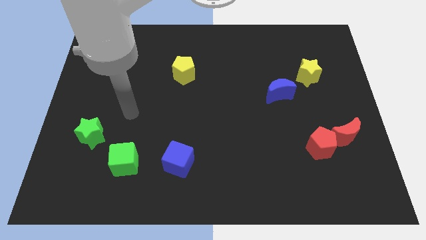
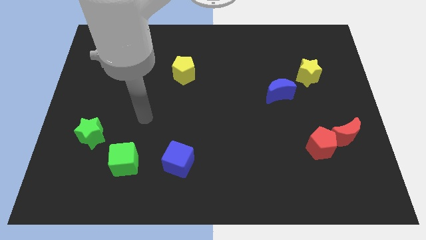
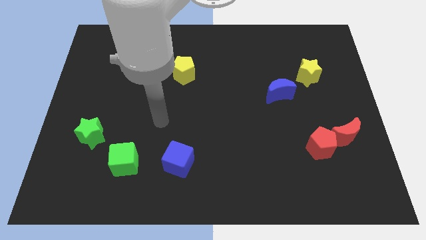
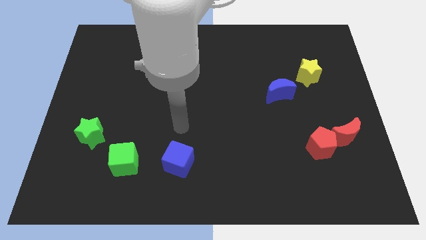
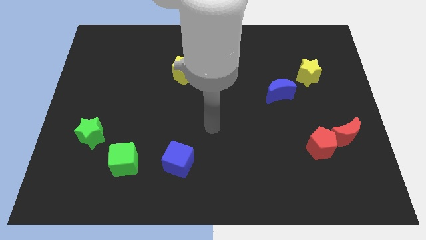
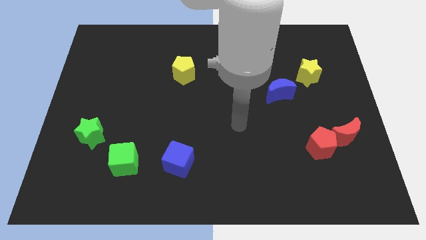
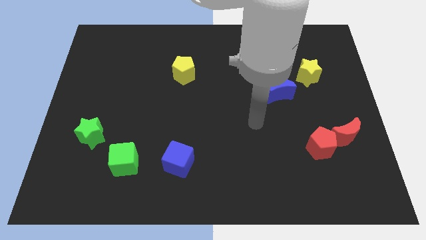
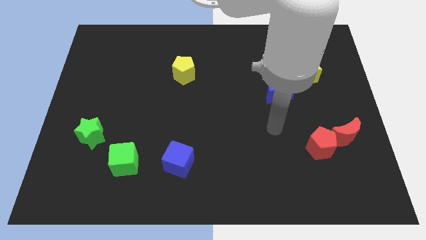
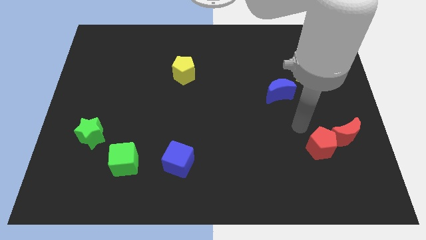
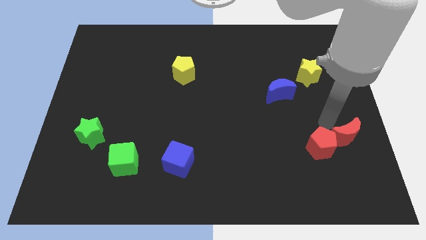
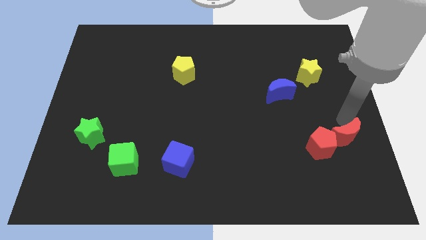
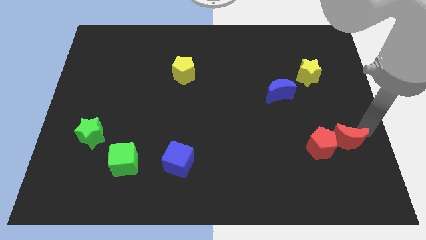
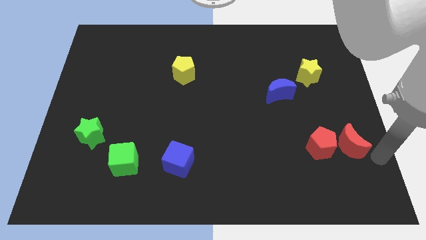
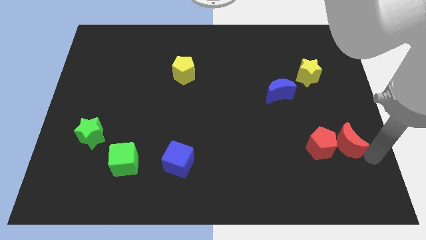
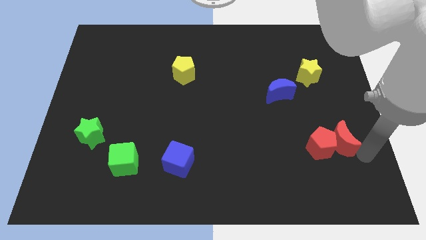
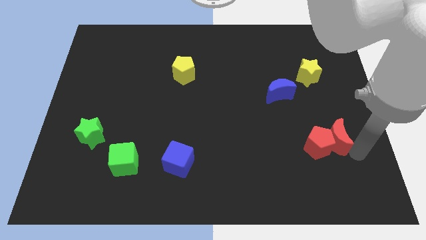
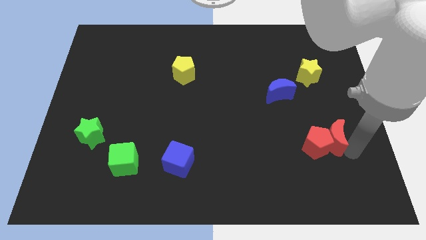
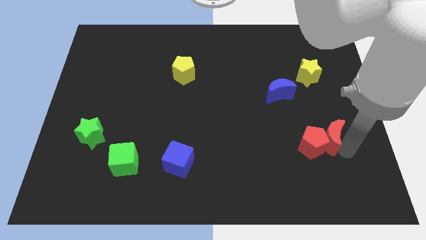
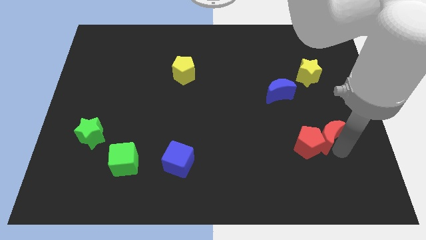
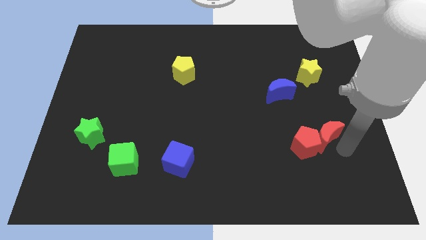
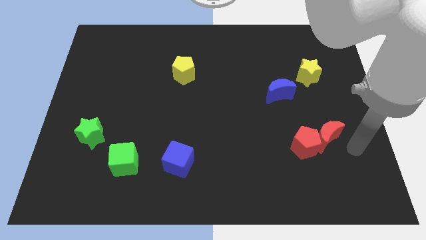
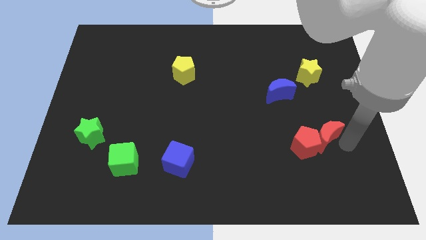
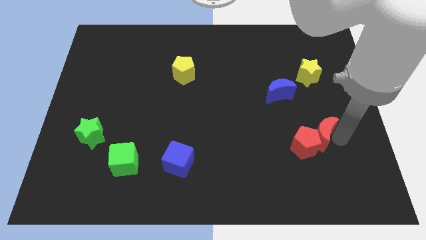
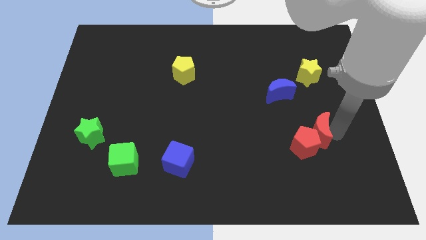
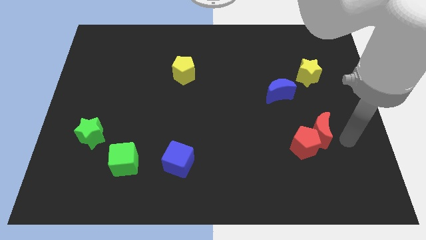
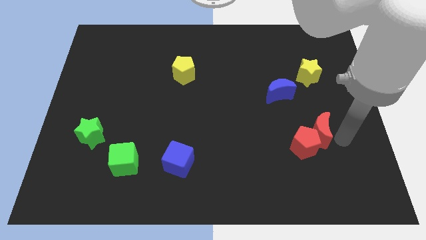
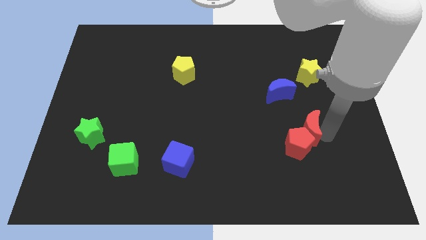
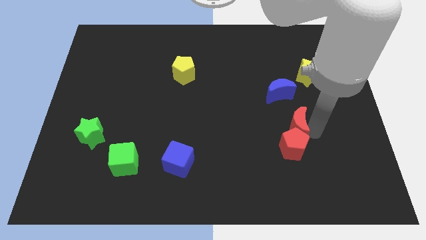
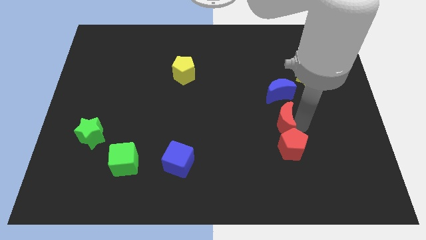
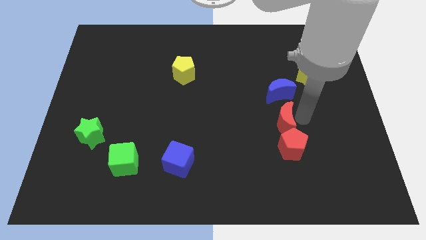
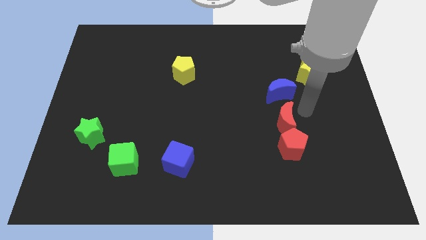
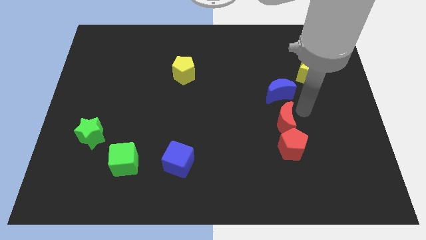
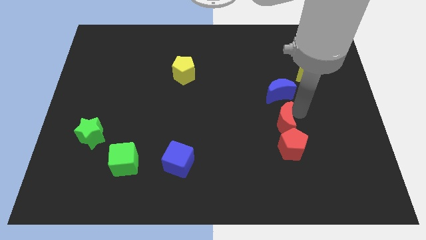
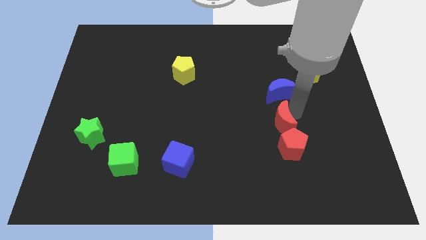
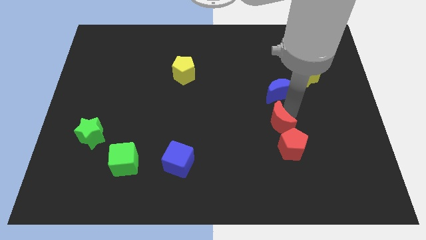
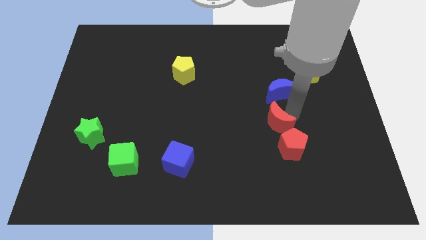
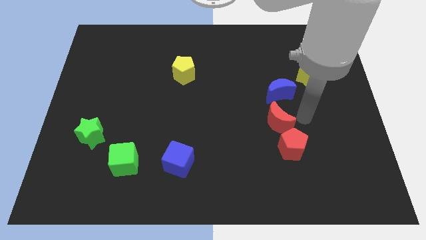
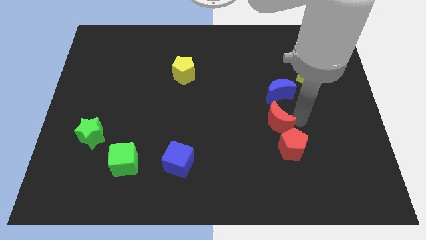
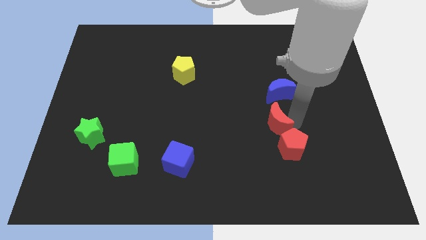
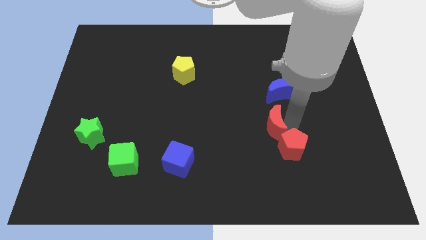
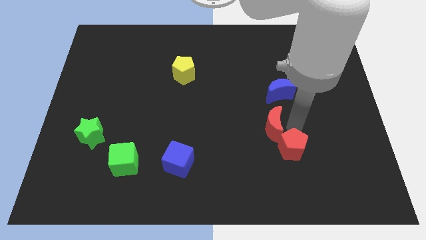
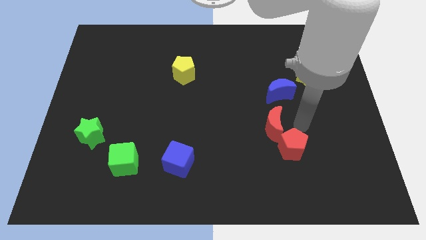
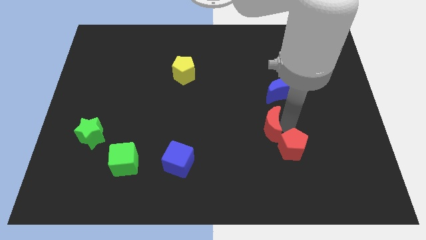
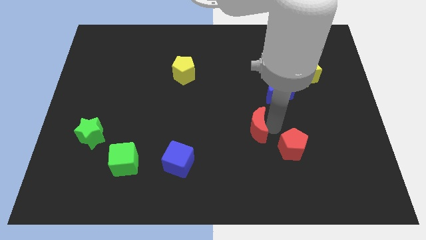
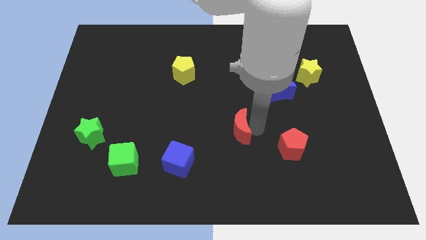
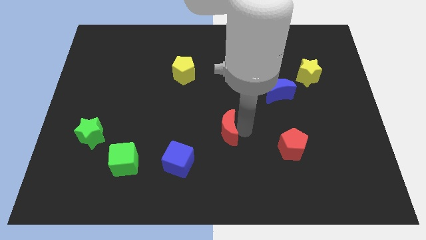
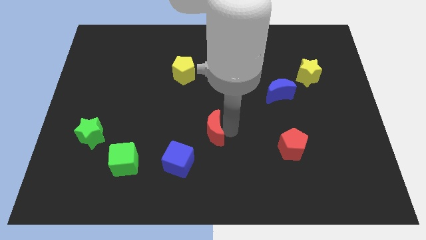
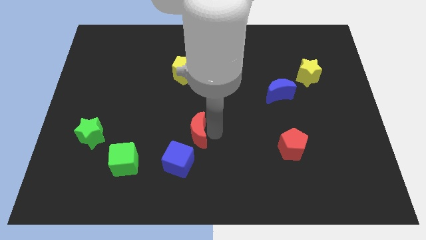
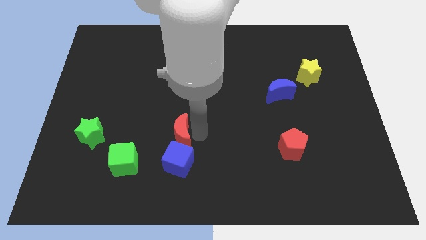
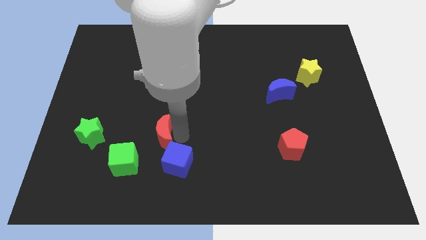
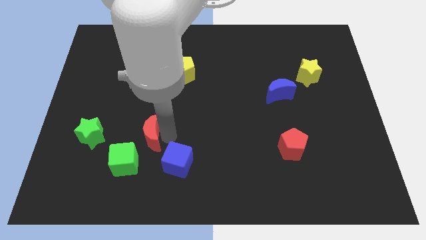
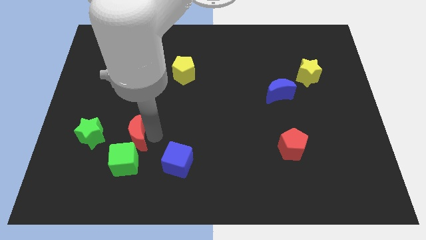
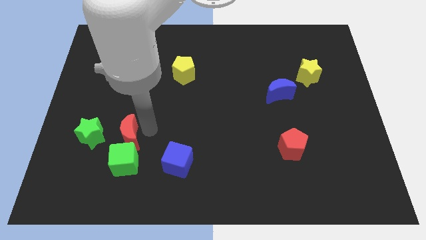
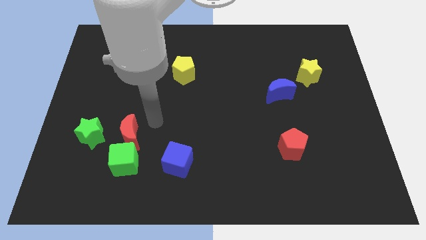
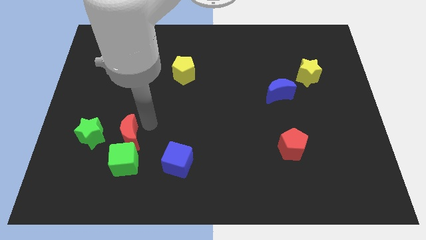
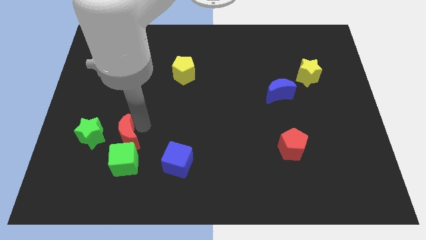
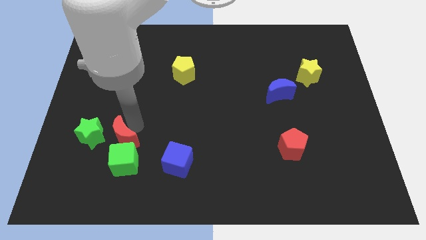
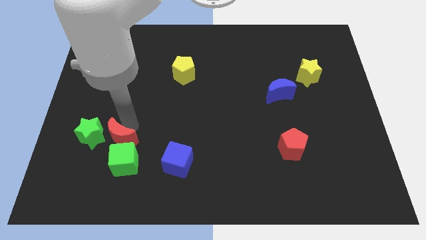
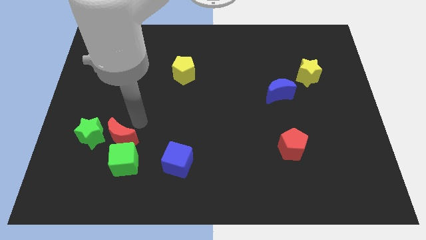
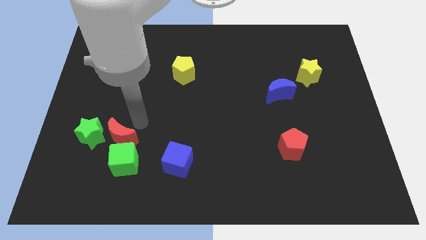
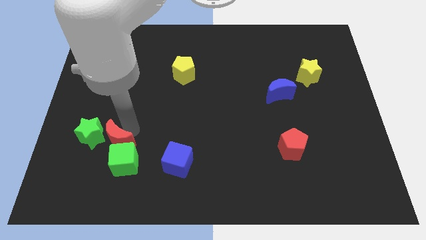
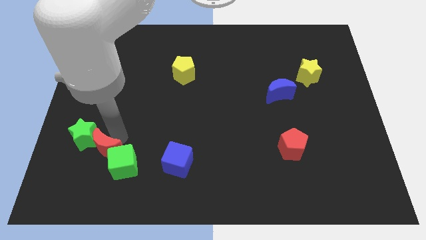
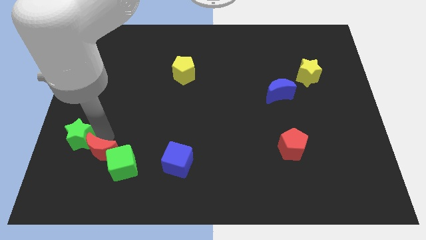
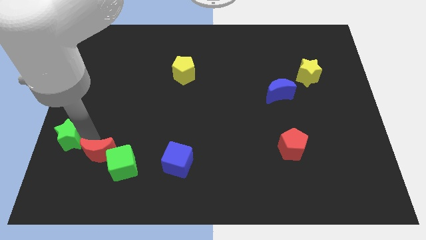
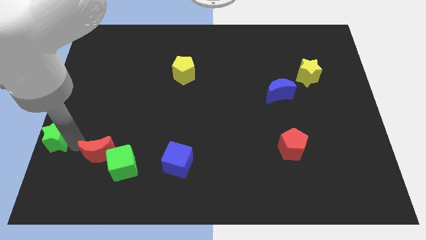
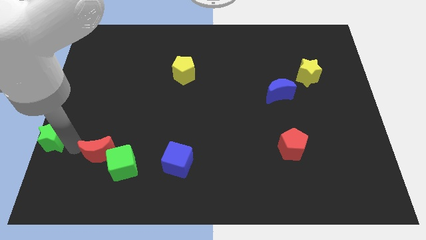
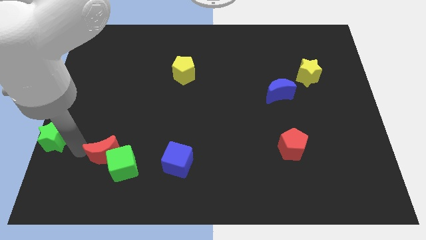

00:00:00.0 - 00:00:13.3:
put the red moon to the left side of the blue cube

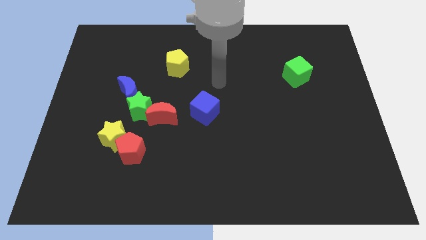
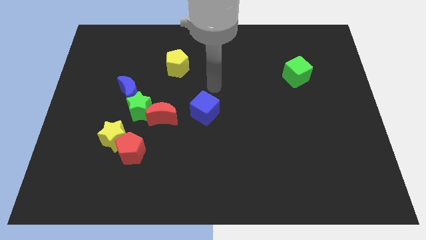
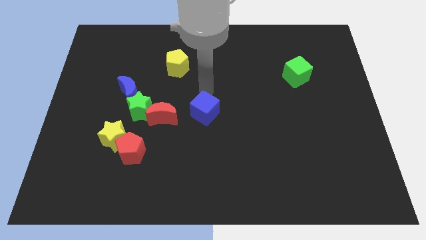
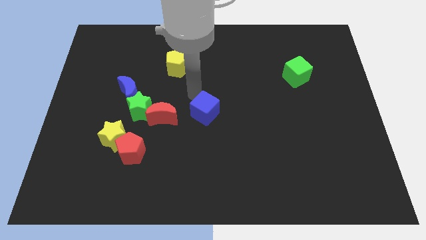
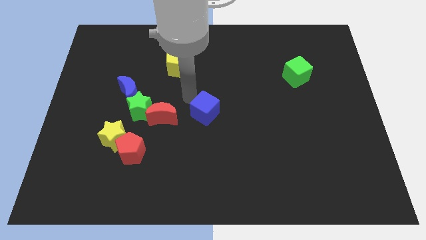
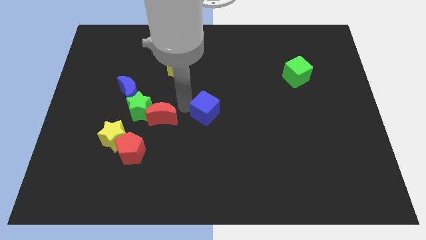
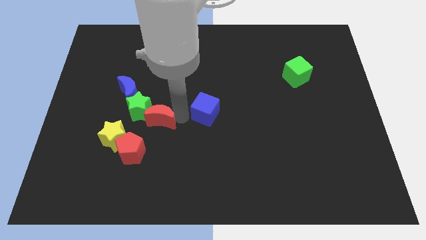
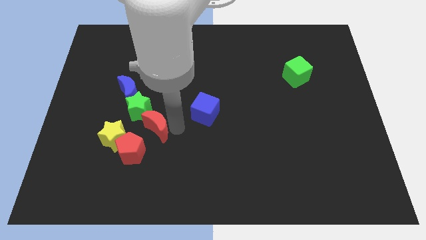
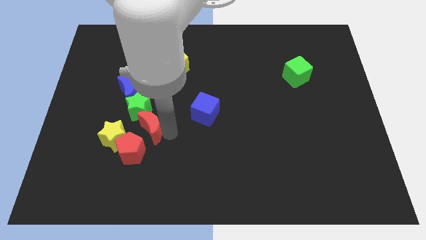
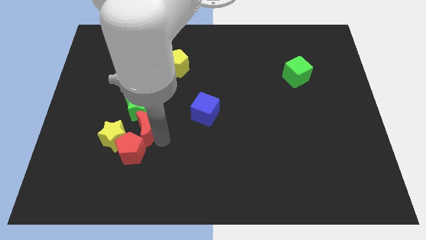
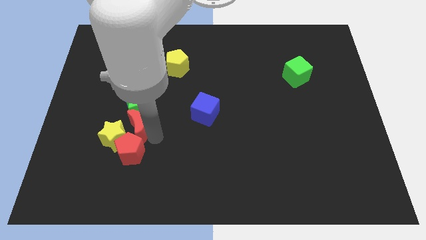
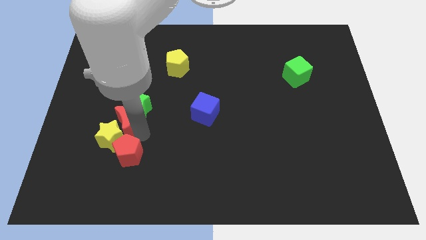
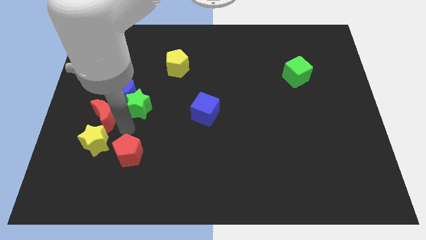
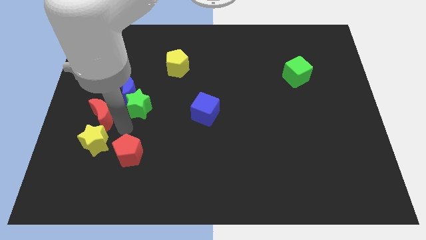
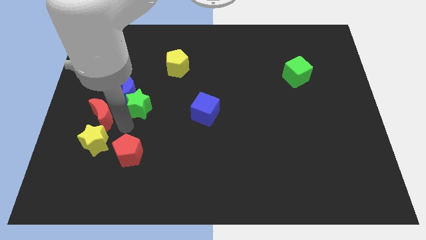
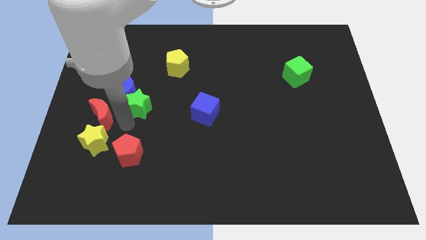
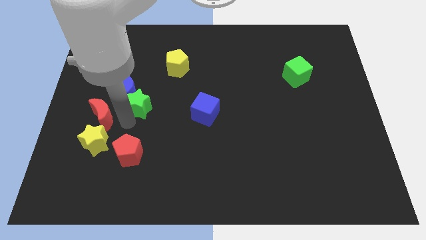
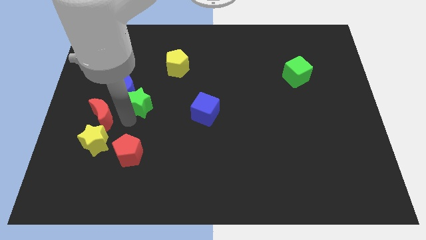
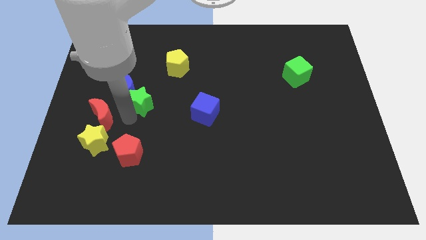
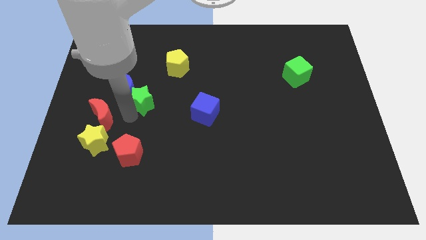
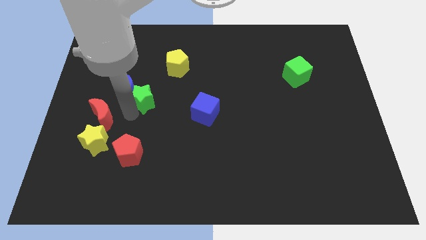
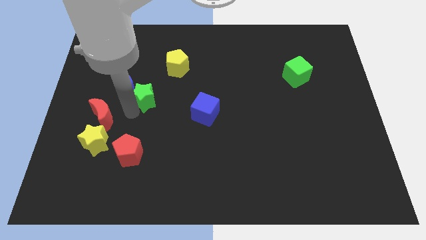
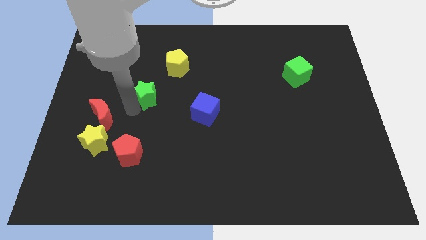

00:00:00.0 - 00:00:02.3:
move the green star to the bottom left of the yellow pentagon
